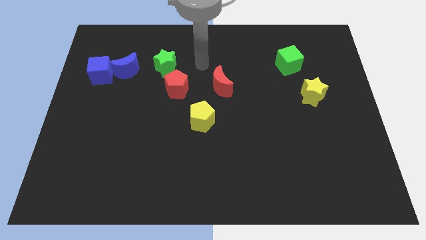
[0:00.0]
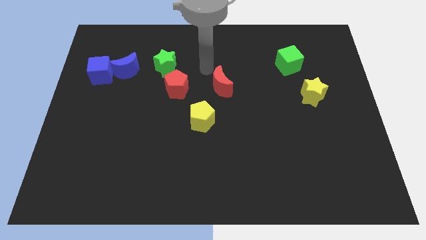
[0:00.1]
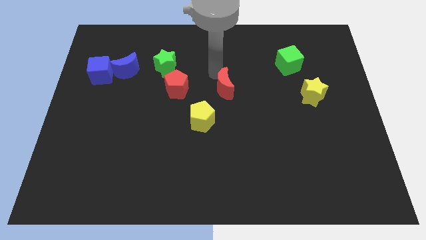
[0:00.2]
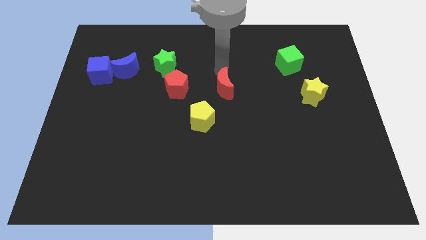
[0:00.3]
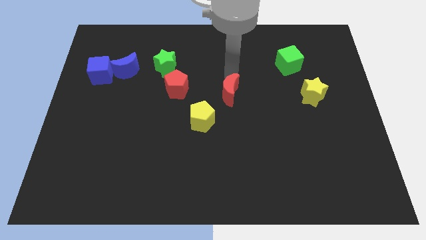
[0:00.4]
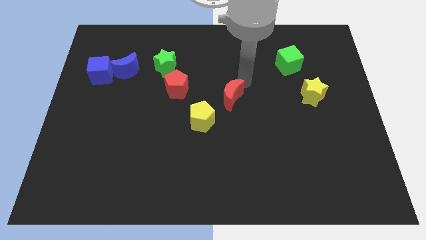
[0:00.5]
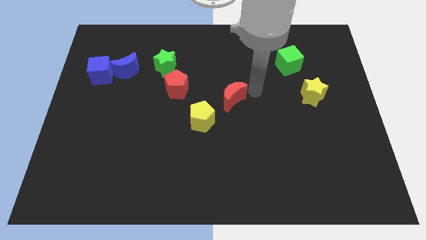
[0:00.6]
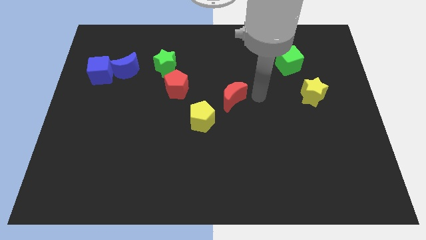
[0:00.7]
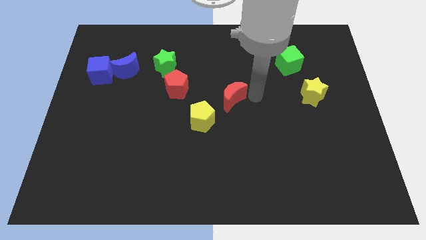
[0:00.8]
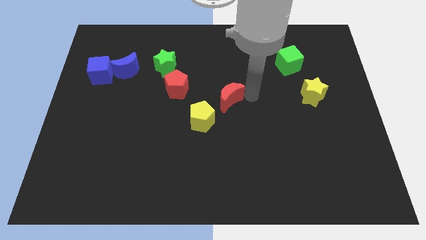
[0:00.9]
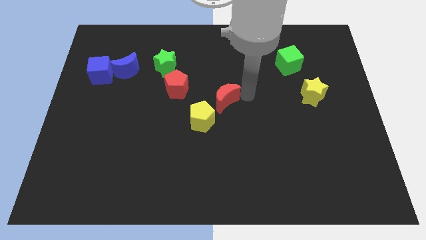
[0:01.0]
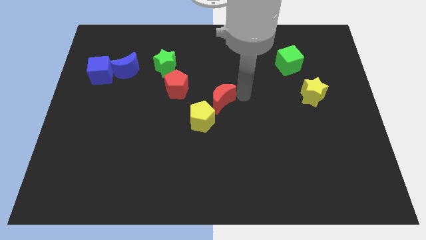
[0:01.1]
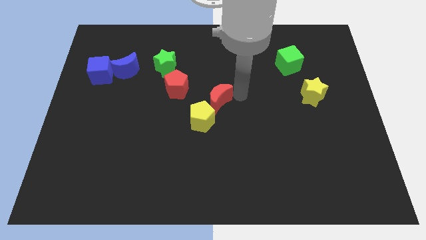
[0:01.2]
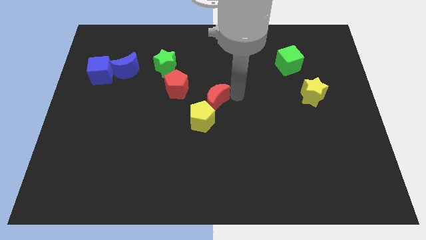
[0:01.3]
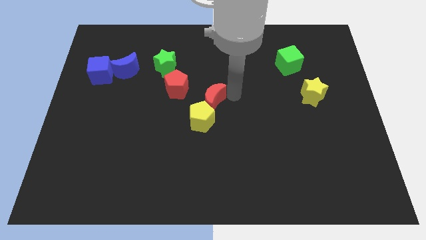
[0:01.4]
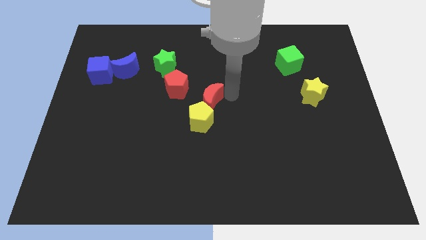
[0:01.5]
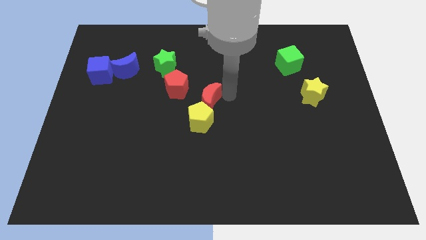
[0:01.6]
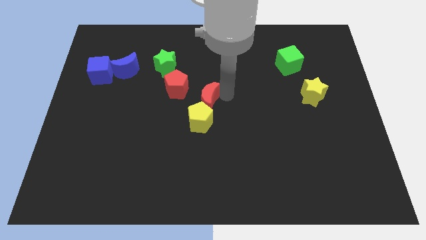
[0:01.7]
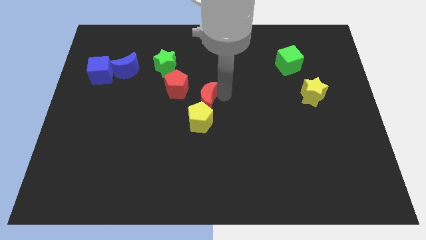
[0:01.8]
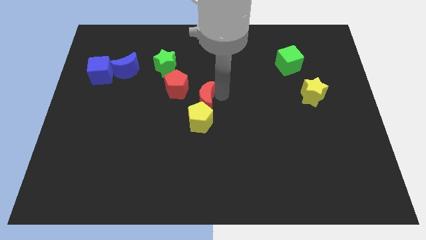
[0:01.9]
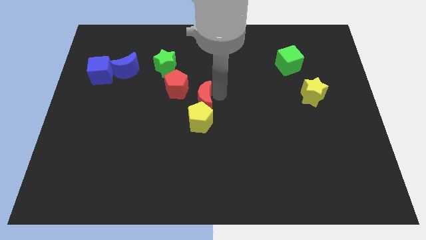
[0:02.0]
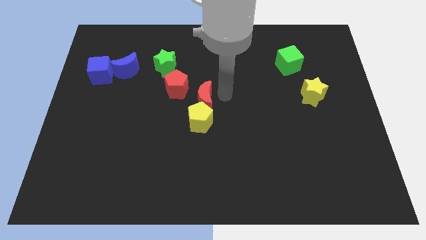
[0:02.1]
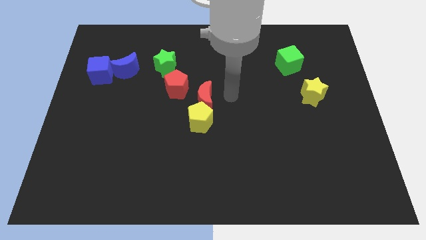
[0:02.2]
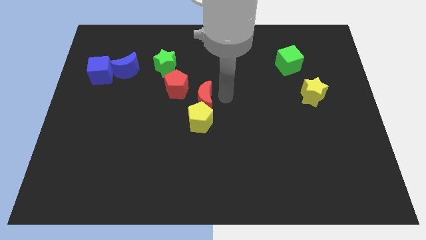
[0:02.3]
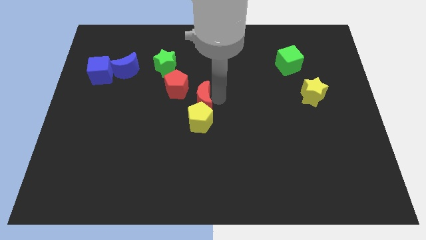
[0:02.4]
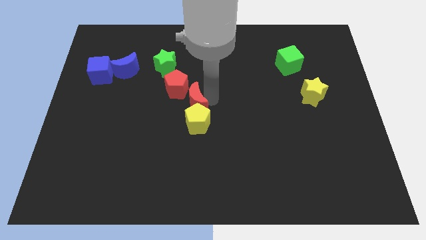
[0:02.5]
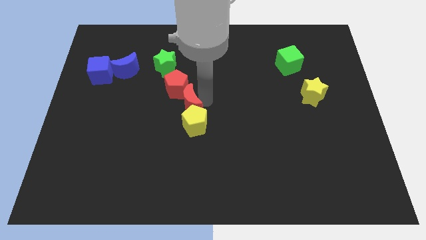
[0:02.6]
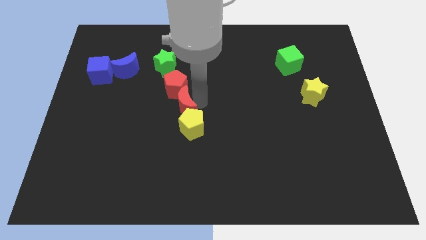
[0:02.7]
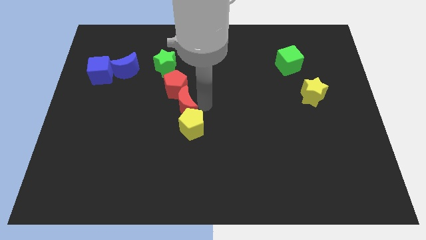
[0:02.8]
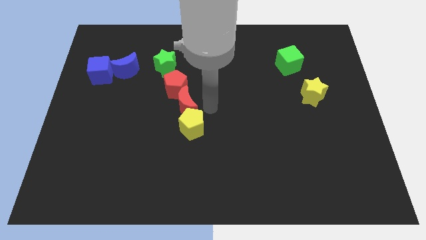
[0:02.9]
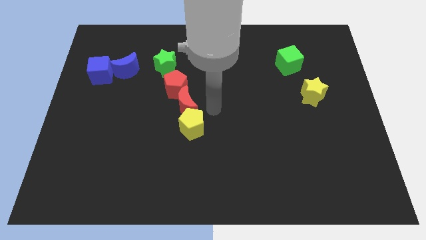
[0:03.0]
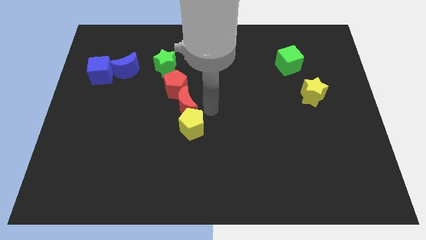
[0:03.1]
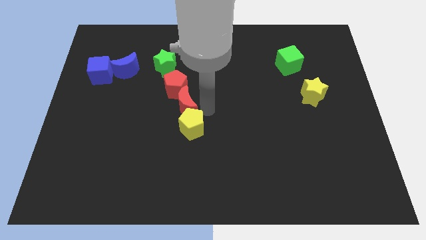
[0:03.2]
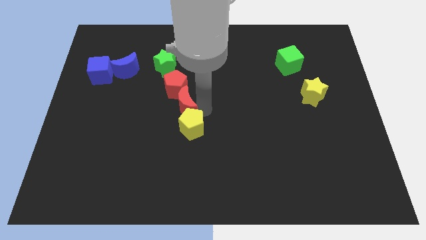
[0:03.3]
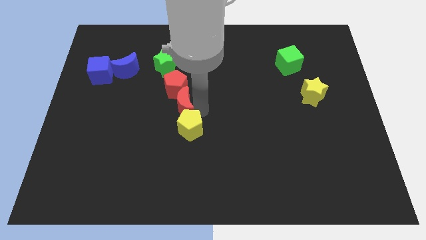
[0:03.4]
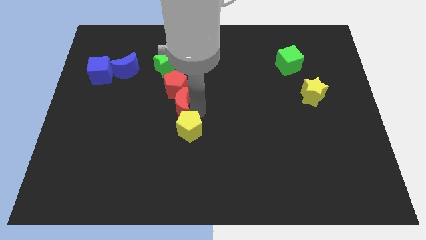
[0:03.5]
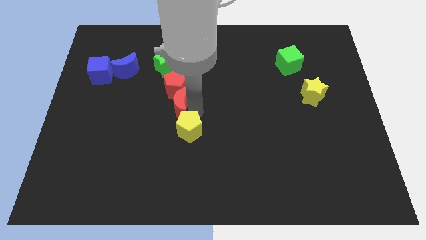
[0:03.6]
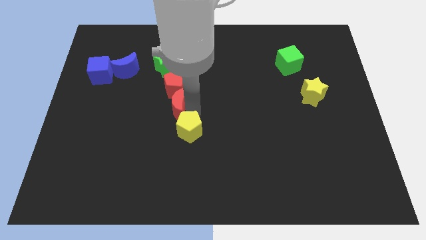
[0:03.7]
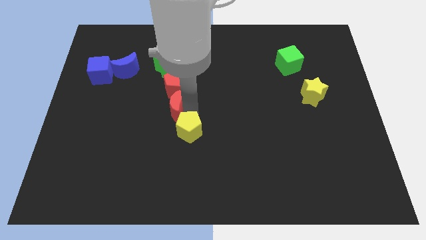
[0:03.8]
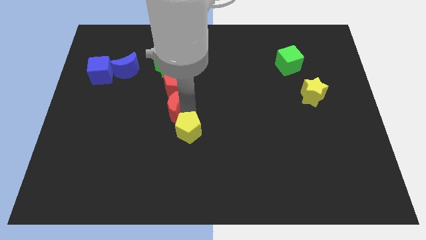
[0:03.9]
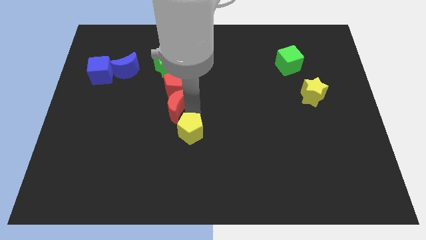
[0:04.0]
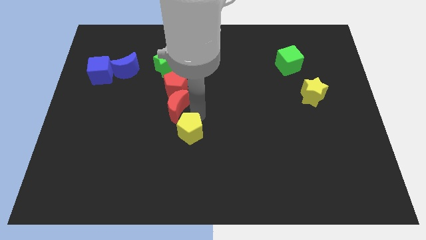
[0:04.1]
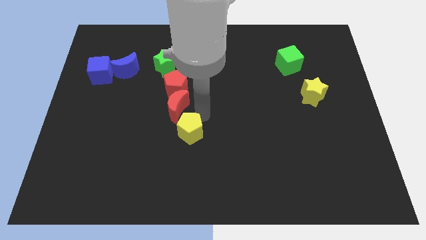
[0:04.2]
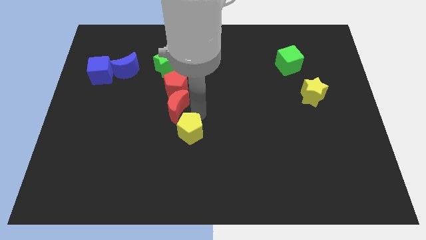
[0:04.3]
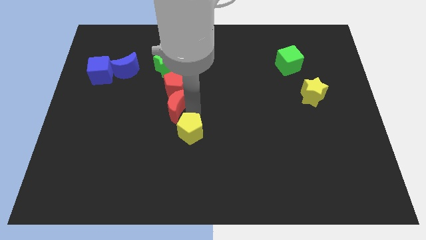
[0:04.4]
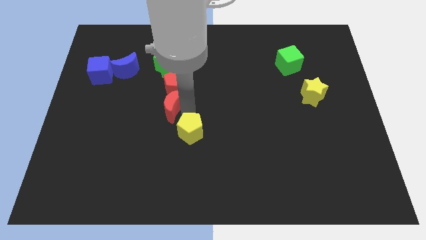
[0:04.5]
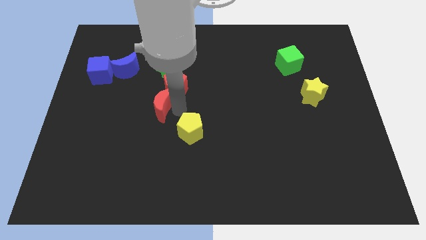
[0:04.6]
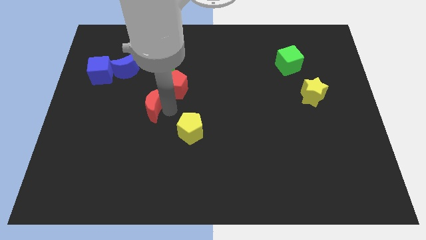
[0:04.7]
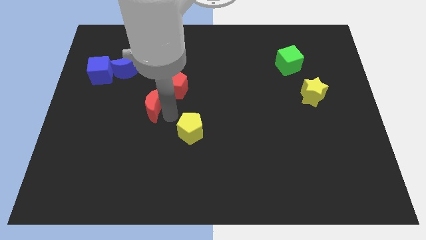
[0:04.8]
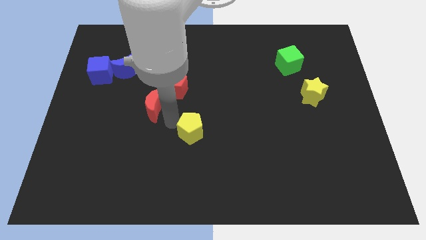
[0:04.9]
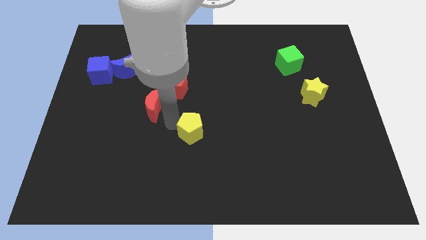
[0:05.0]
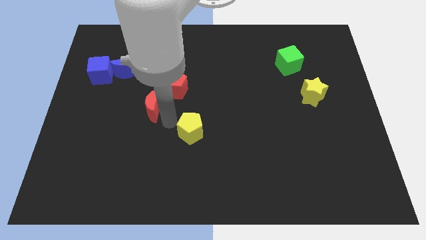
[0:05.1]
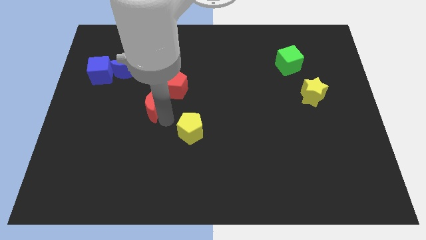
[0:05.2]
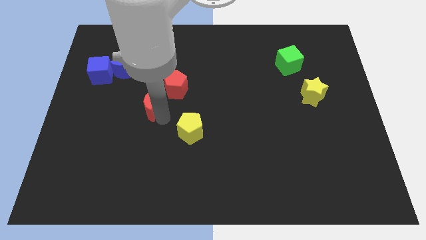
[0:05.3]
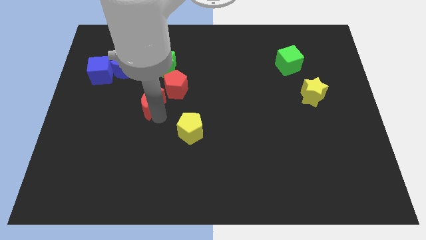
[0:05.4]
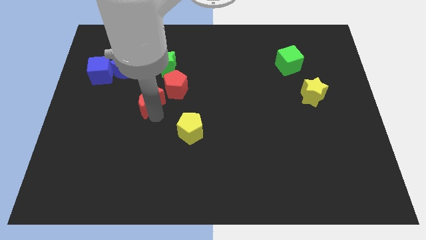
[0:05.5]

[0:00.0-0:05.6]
push the red moon to the left side of the red pentagon

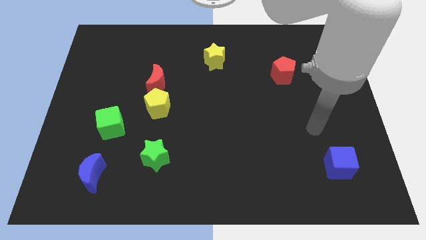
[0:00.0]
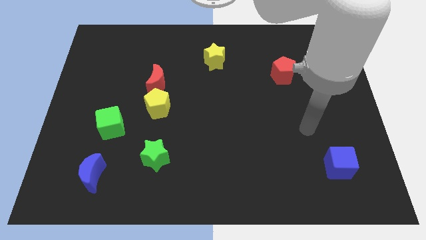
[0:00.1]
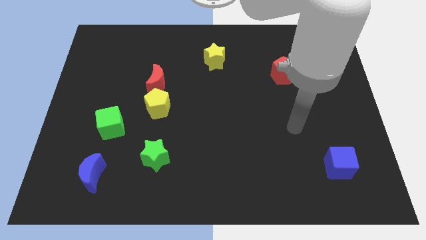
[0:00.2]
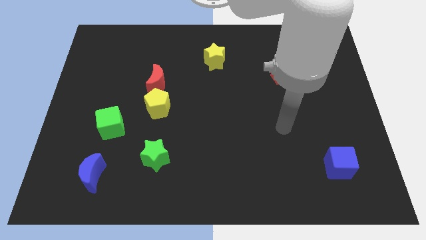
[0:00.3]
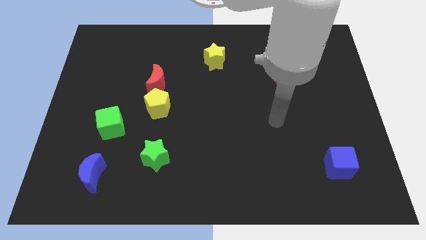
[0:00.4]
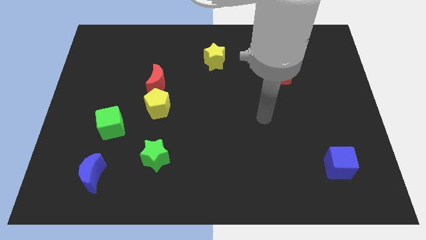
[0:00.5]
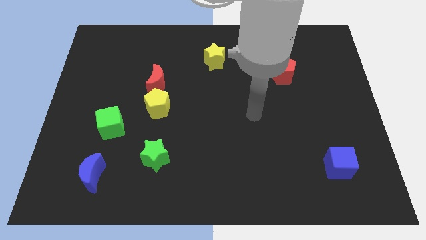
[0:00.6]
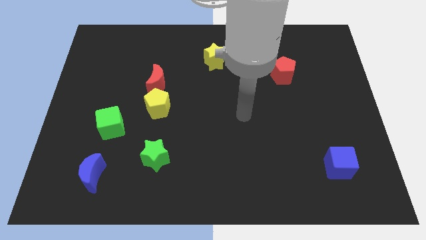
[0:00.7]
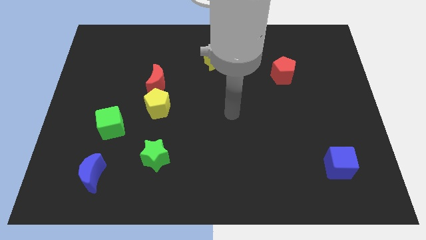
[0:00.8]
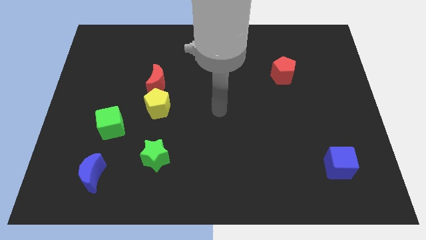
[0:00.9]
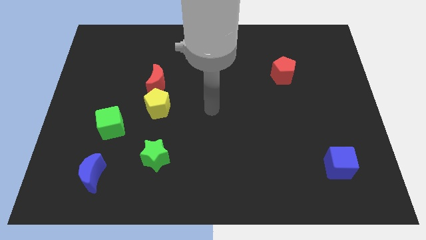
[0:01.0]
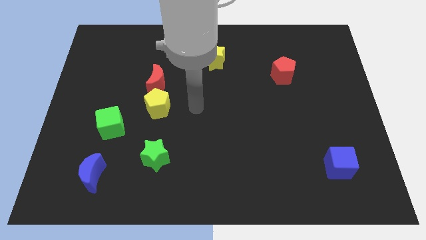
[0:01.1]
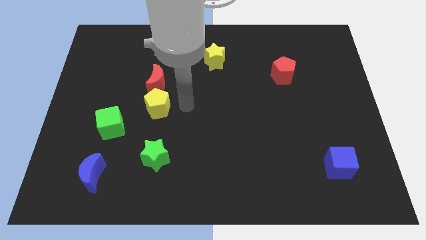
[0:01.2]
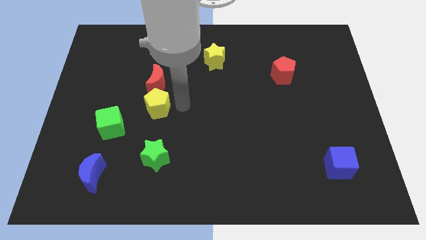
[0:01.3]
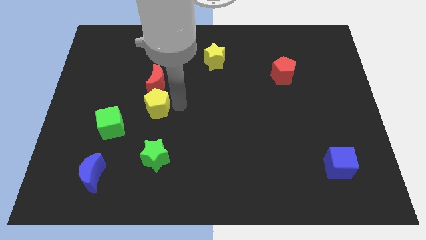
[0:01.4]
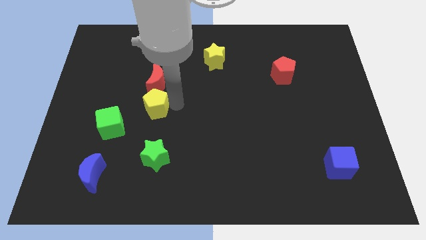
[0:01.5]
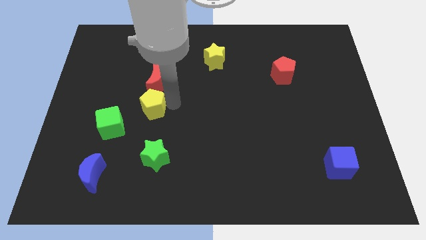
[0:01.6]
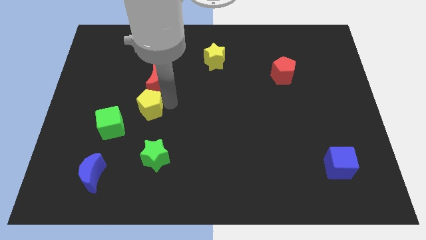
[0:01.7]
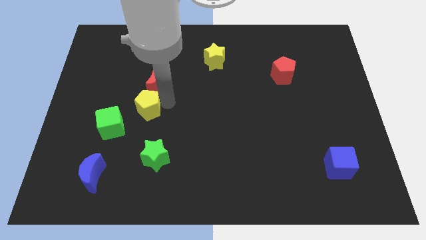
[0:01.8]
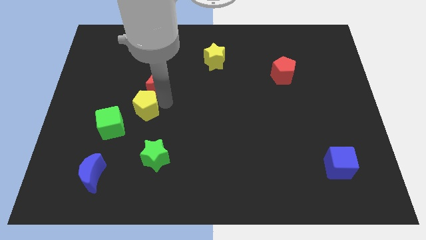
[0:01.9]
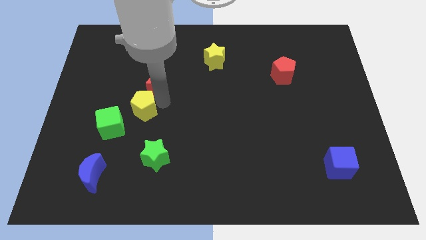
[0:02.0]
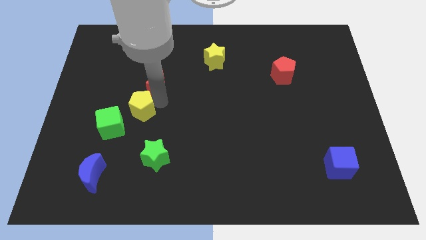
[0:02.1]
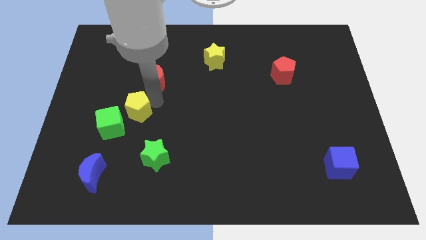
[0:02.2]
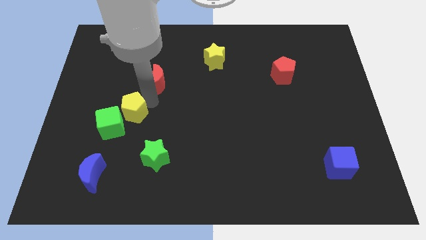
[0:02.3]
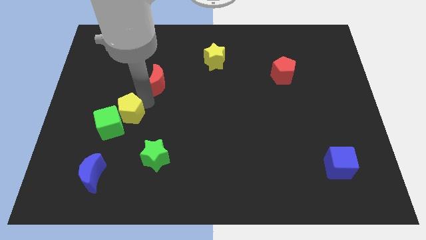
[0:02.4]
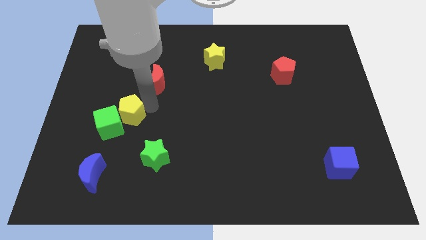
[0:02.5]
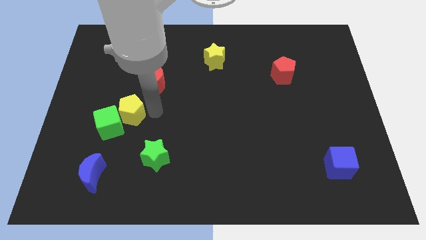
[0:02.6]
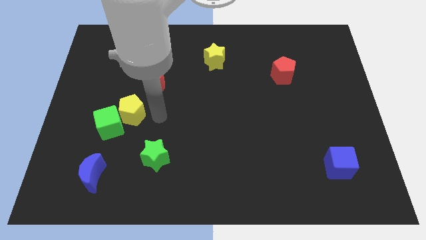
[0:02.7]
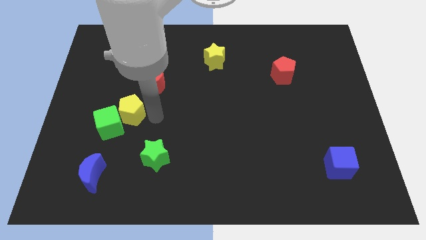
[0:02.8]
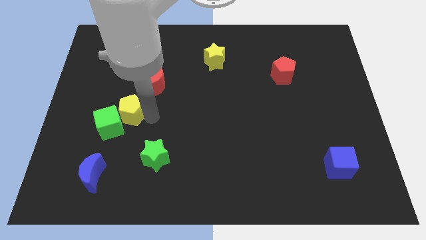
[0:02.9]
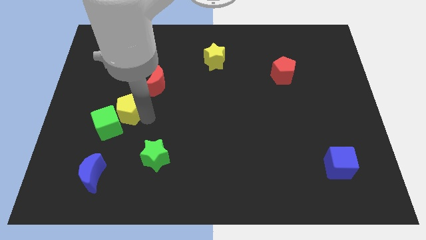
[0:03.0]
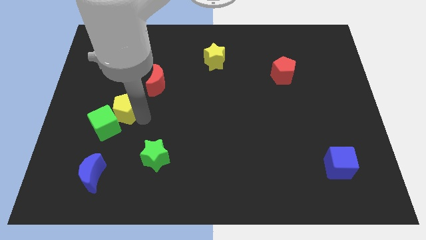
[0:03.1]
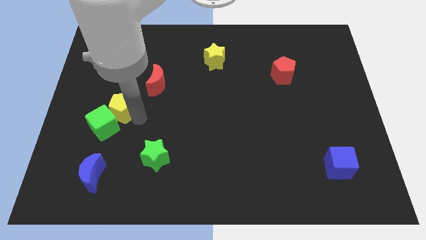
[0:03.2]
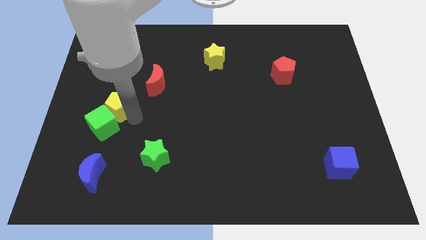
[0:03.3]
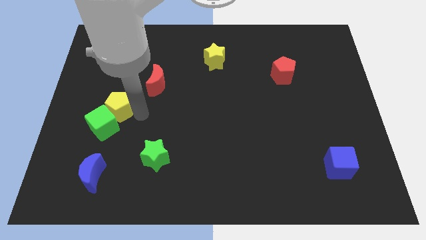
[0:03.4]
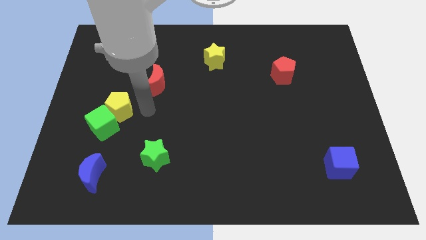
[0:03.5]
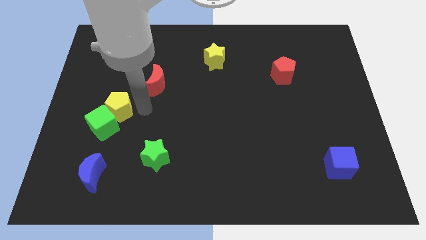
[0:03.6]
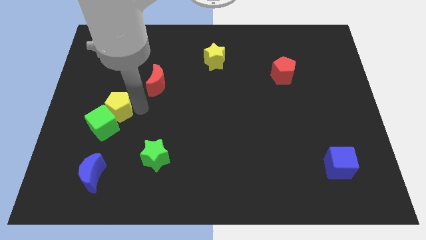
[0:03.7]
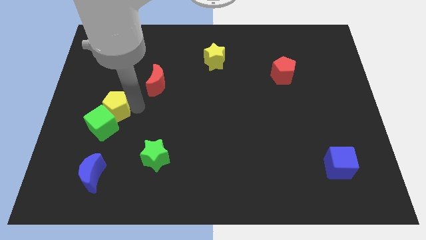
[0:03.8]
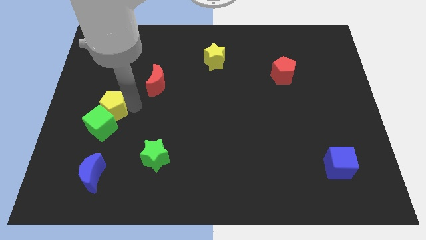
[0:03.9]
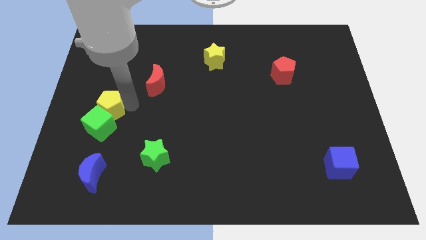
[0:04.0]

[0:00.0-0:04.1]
move the yellow pentagon to the top left side of the green cube
